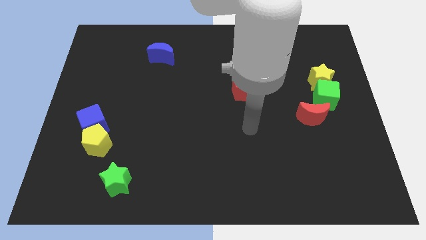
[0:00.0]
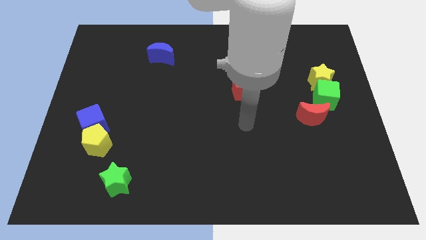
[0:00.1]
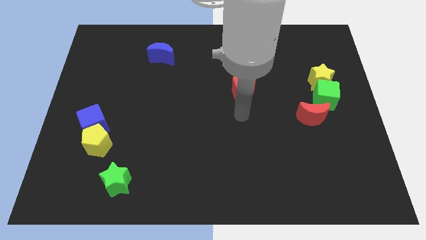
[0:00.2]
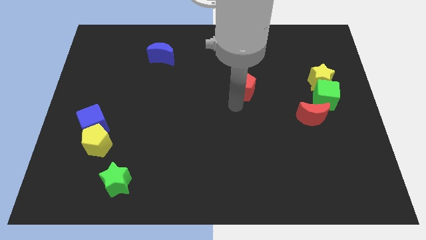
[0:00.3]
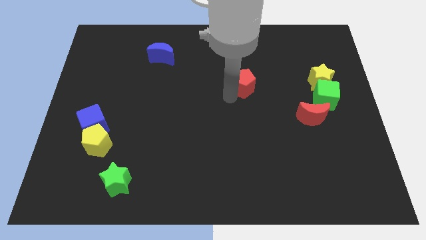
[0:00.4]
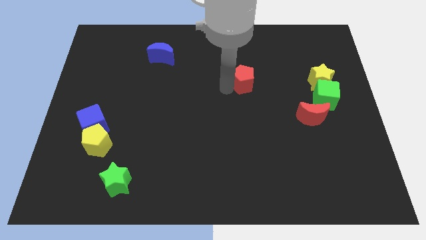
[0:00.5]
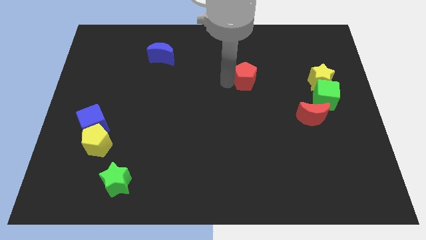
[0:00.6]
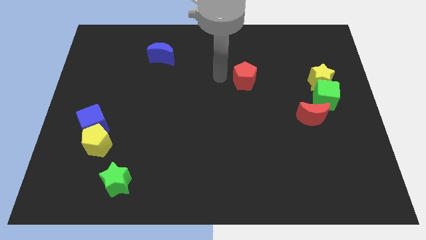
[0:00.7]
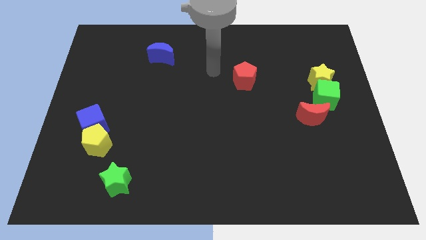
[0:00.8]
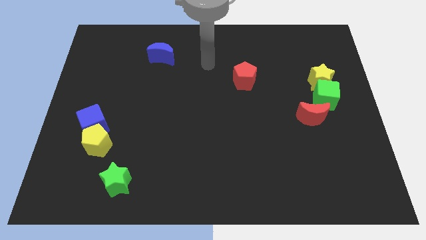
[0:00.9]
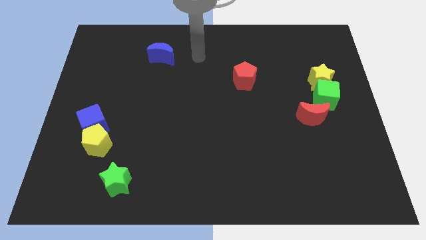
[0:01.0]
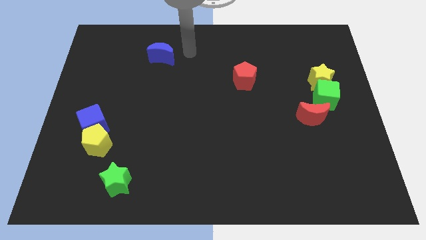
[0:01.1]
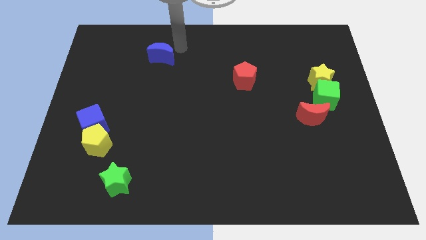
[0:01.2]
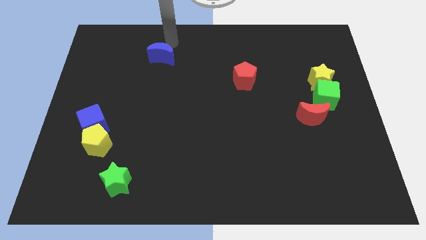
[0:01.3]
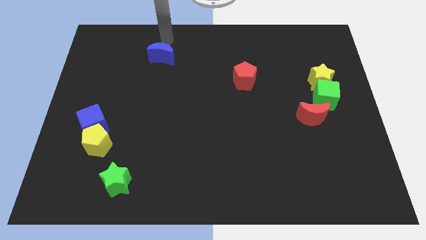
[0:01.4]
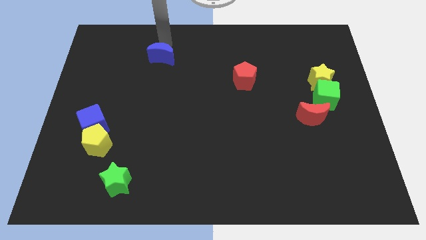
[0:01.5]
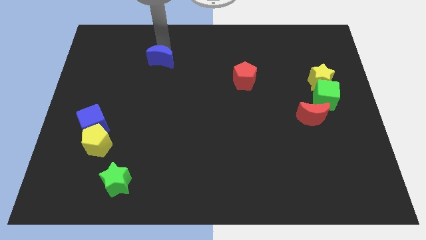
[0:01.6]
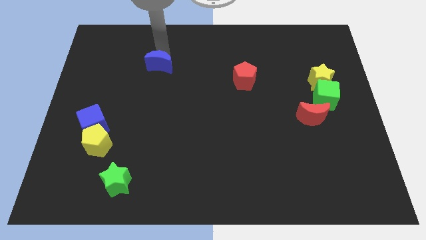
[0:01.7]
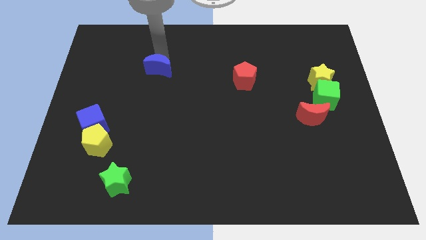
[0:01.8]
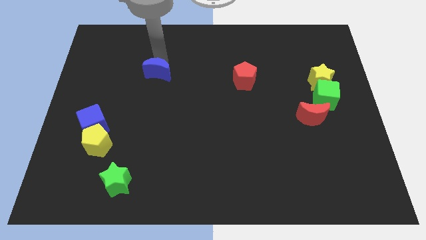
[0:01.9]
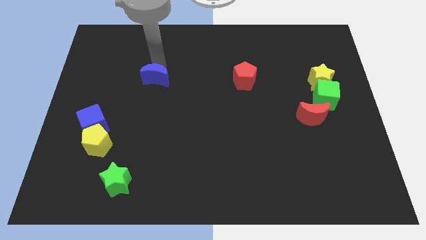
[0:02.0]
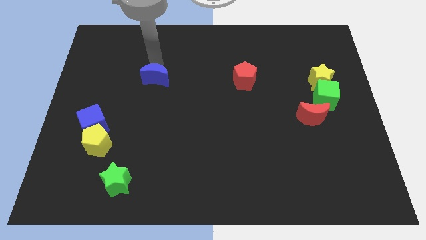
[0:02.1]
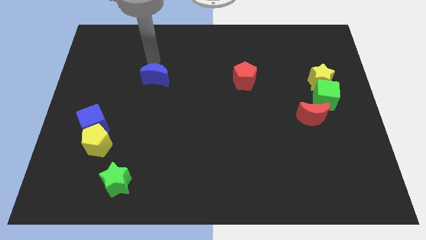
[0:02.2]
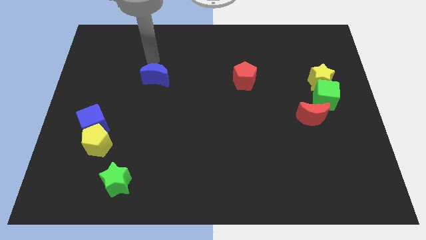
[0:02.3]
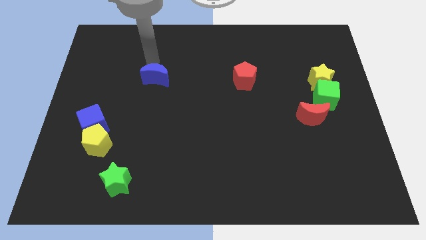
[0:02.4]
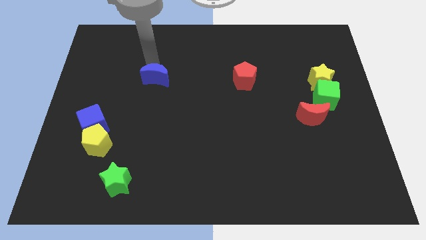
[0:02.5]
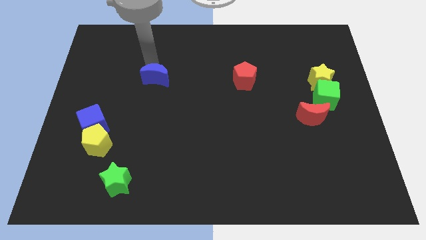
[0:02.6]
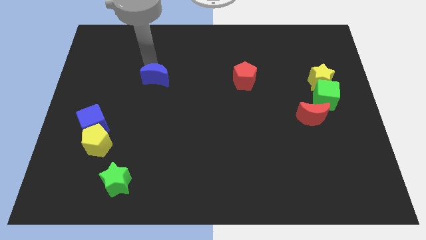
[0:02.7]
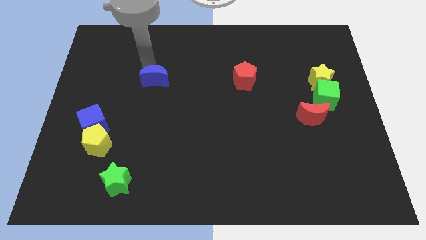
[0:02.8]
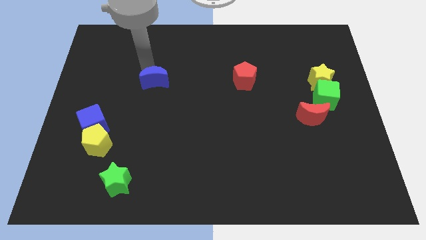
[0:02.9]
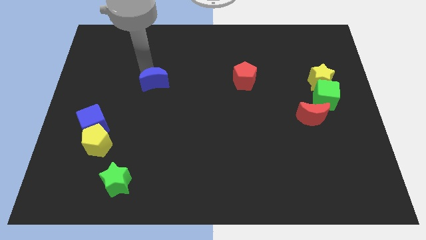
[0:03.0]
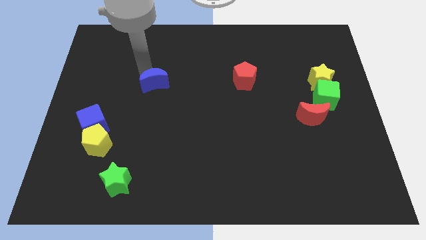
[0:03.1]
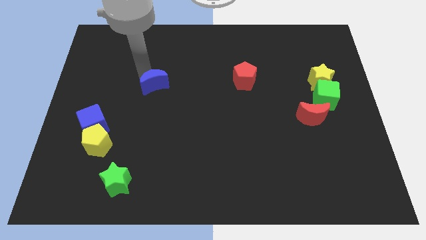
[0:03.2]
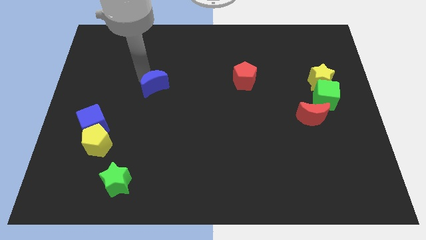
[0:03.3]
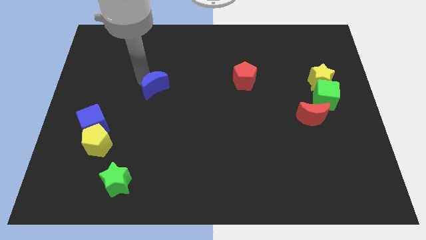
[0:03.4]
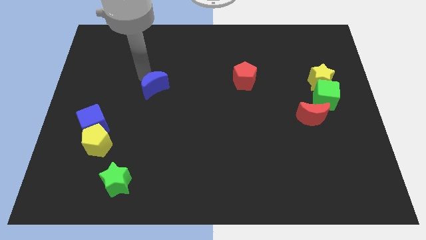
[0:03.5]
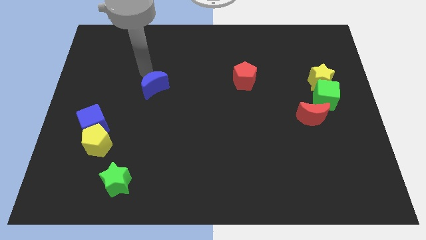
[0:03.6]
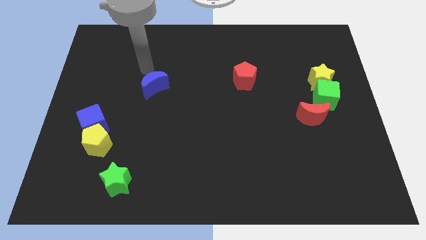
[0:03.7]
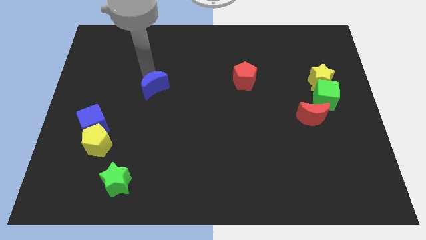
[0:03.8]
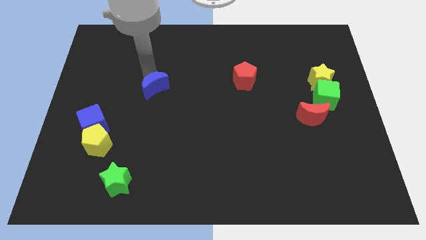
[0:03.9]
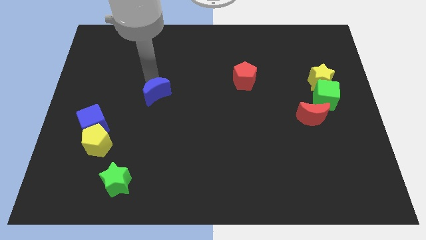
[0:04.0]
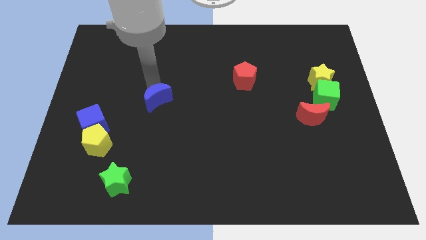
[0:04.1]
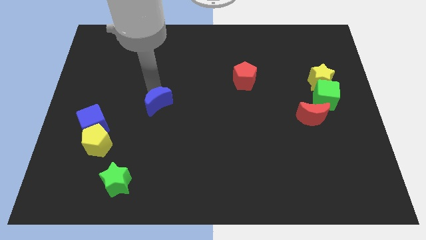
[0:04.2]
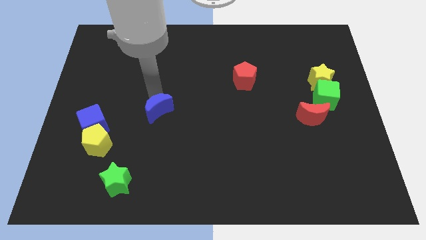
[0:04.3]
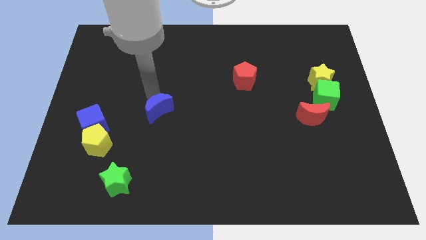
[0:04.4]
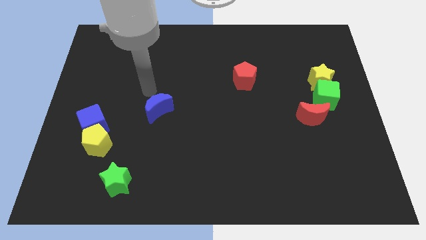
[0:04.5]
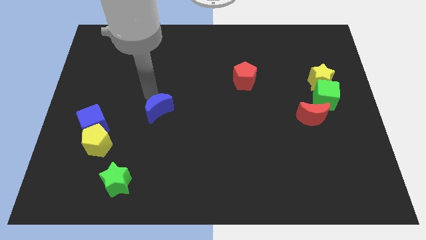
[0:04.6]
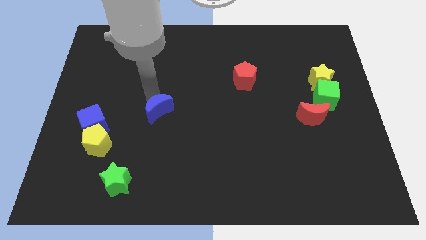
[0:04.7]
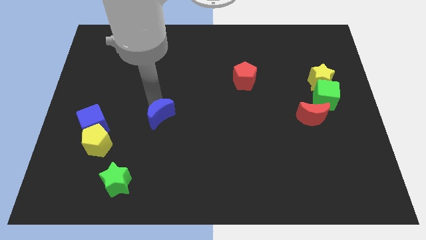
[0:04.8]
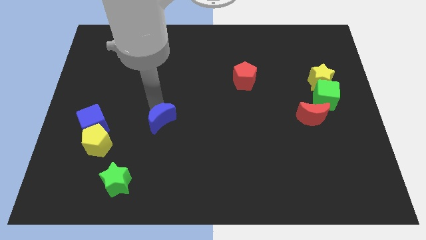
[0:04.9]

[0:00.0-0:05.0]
push the blue moon downwards

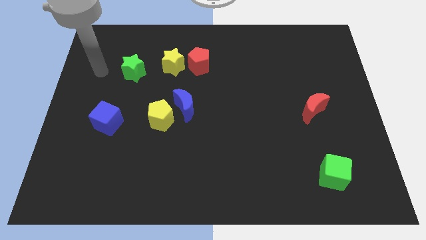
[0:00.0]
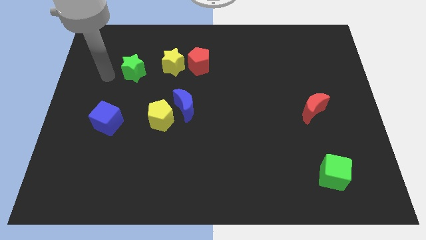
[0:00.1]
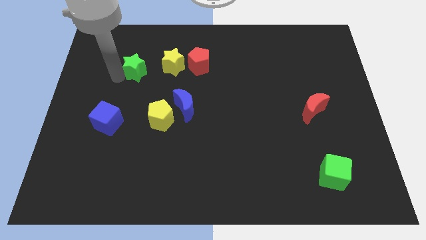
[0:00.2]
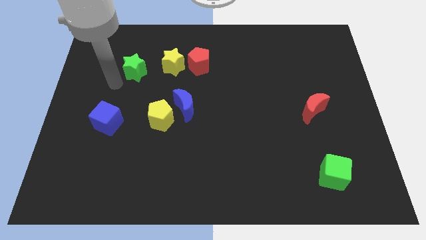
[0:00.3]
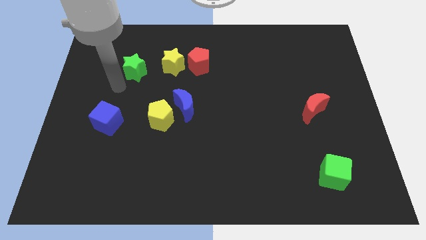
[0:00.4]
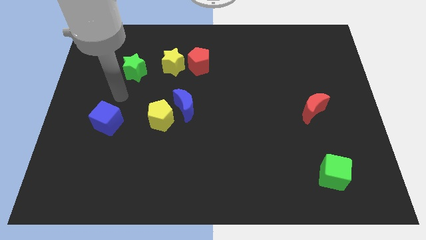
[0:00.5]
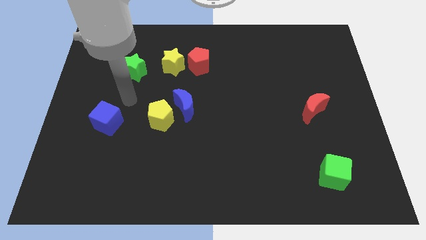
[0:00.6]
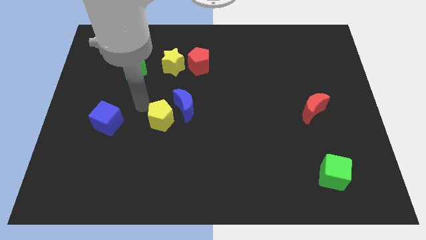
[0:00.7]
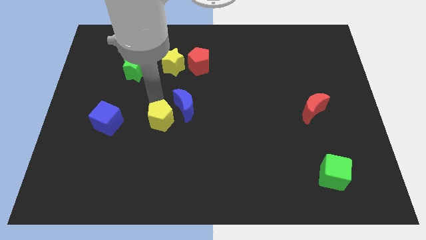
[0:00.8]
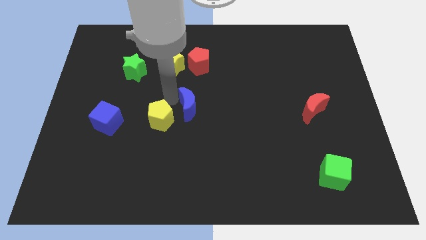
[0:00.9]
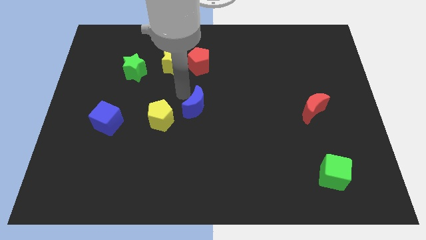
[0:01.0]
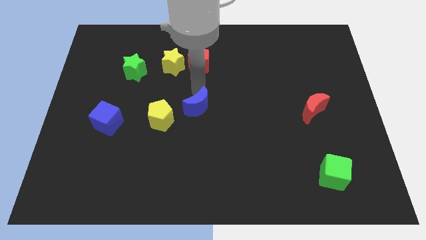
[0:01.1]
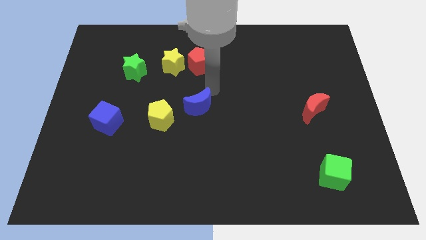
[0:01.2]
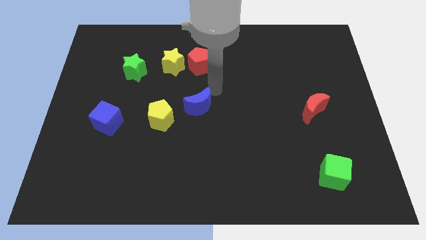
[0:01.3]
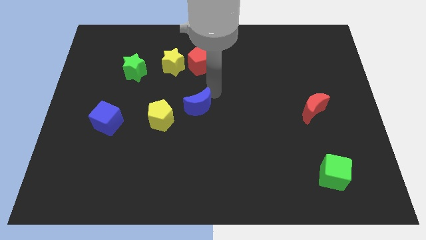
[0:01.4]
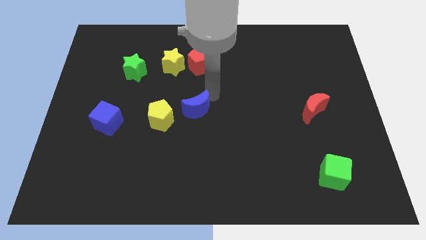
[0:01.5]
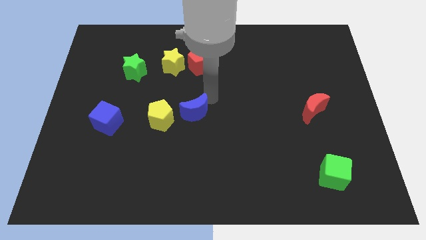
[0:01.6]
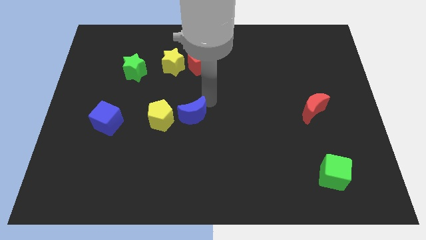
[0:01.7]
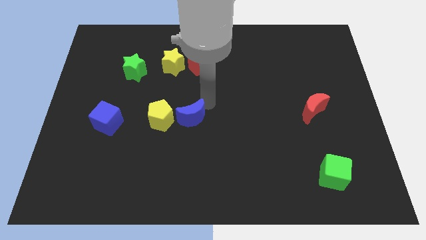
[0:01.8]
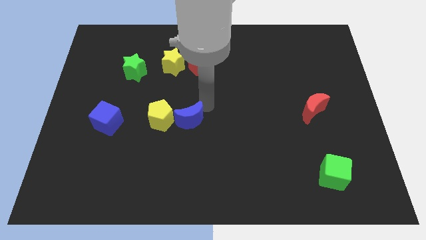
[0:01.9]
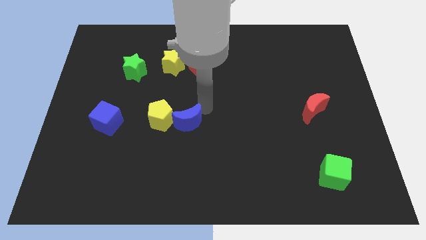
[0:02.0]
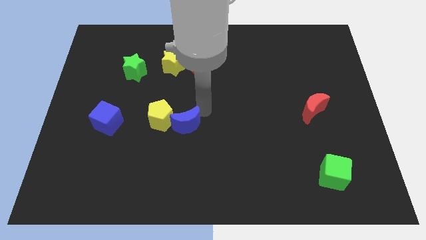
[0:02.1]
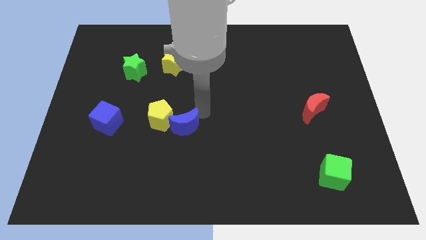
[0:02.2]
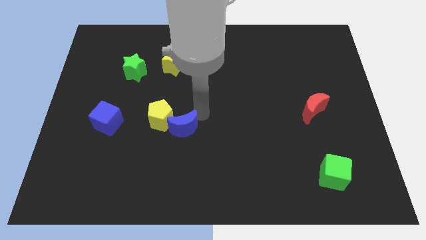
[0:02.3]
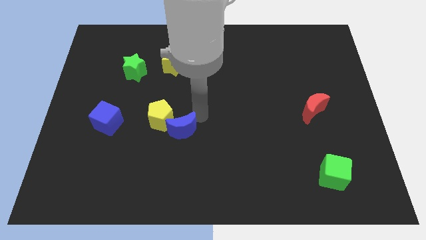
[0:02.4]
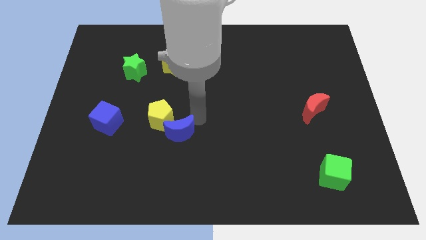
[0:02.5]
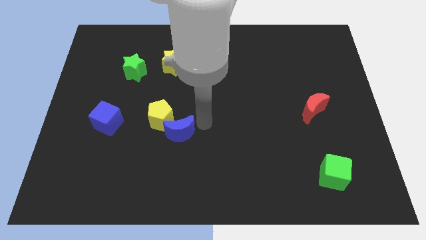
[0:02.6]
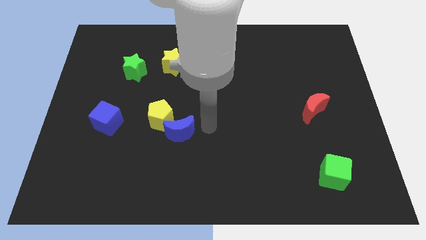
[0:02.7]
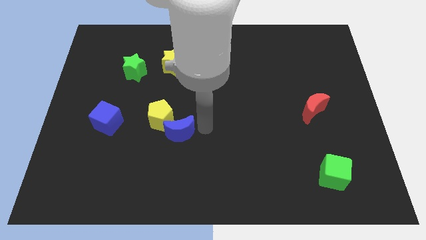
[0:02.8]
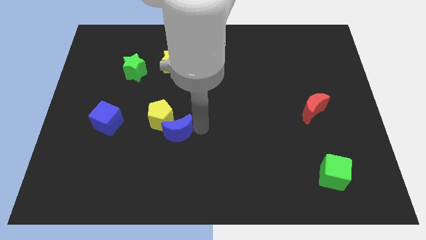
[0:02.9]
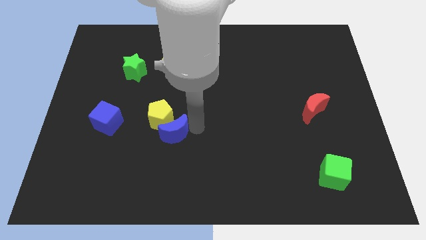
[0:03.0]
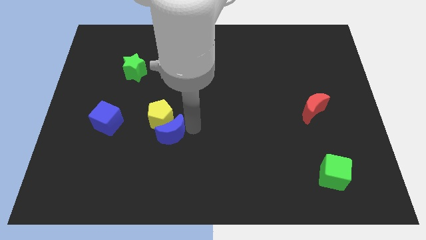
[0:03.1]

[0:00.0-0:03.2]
slide the blue moon down and then to the left somewhat
